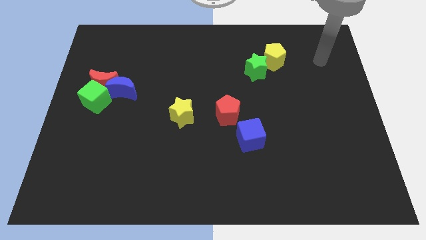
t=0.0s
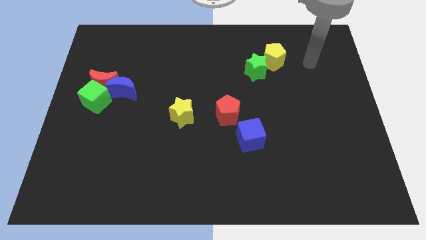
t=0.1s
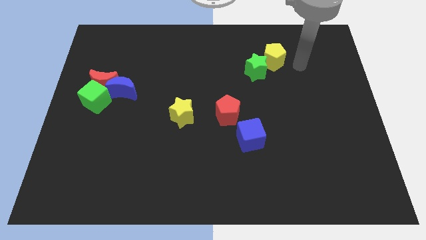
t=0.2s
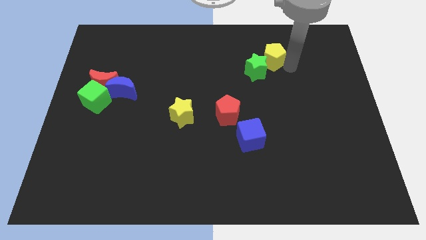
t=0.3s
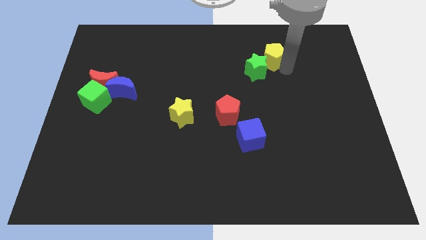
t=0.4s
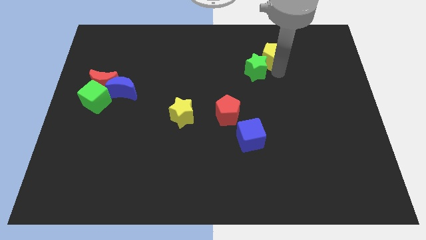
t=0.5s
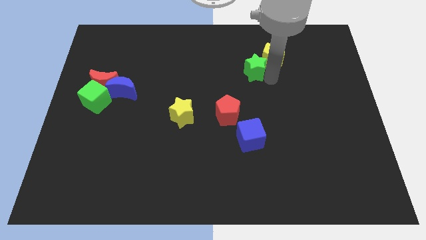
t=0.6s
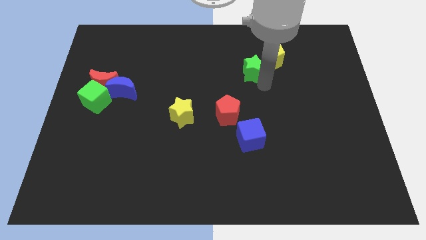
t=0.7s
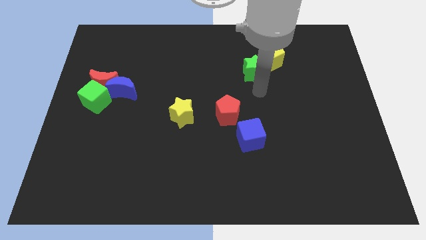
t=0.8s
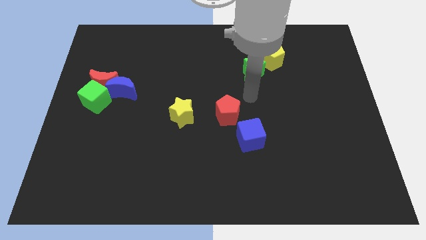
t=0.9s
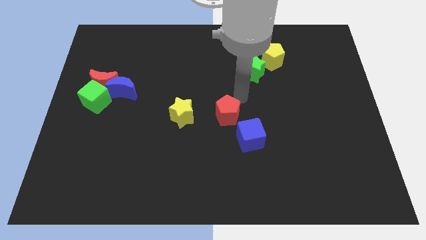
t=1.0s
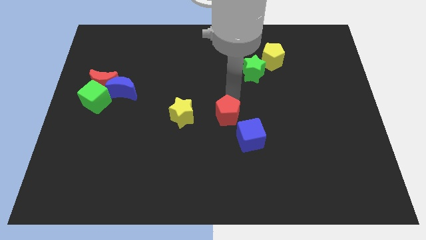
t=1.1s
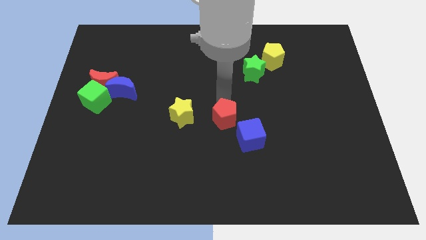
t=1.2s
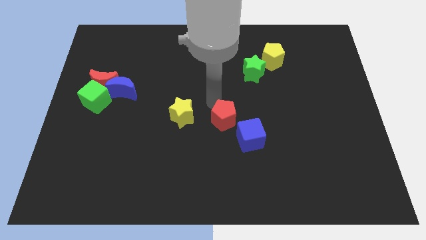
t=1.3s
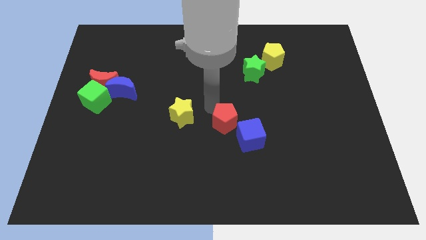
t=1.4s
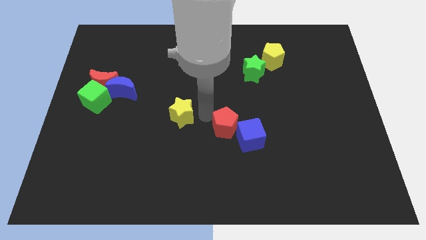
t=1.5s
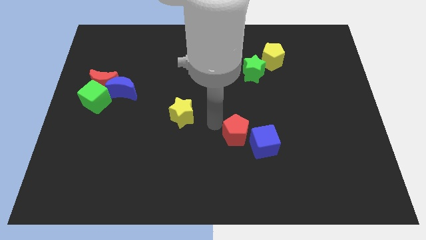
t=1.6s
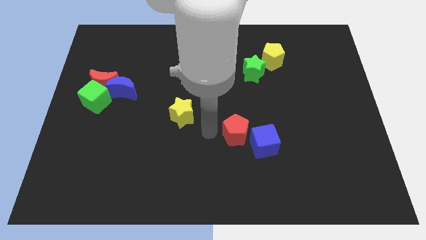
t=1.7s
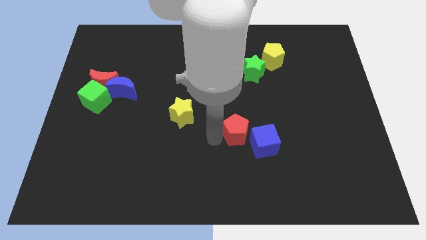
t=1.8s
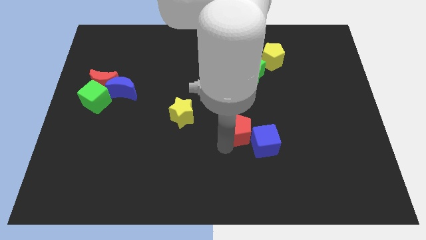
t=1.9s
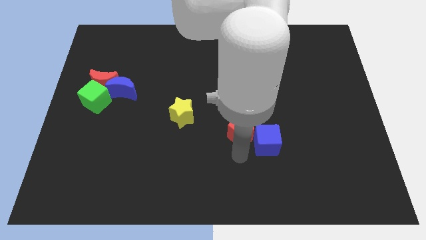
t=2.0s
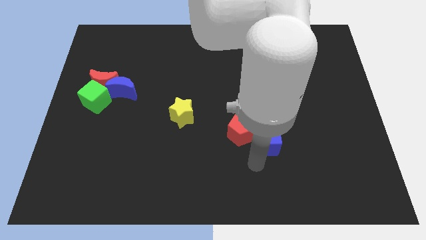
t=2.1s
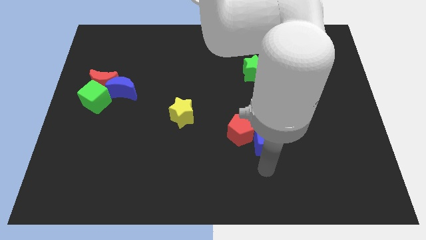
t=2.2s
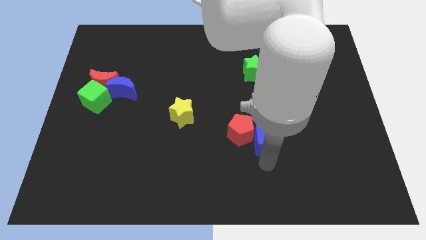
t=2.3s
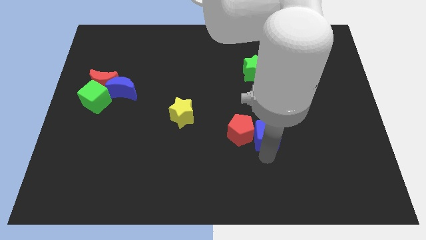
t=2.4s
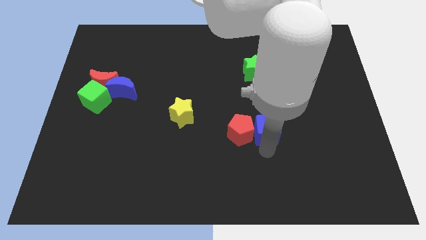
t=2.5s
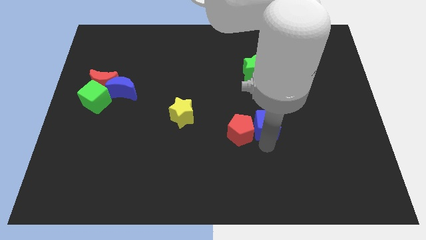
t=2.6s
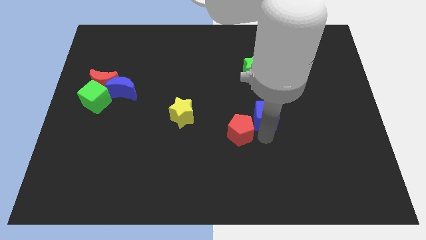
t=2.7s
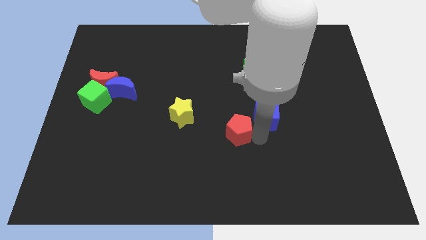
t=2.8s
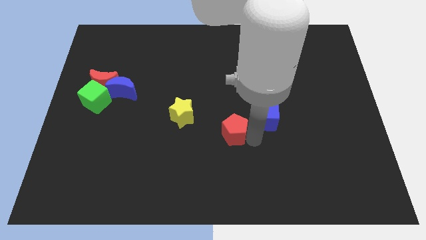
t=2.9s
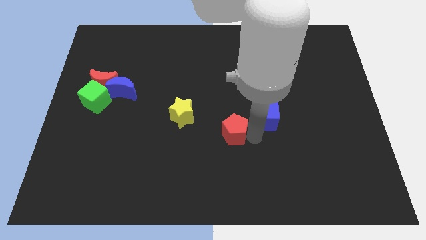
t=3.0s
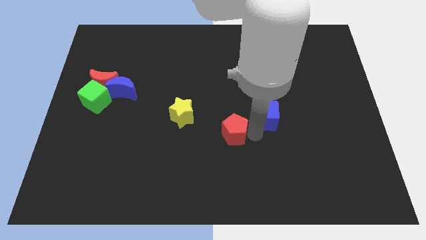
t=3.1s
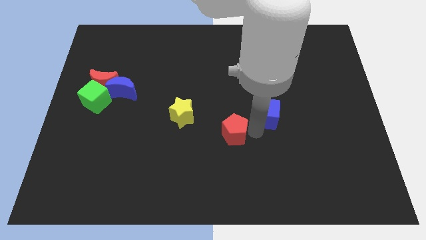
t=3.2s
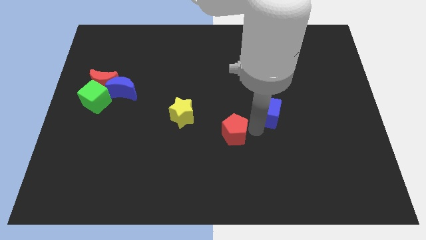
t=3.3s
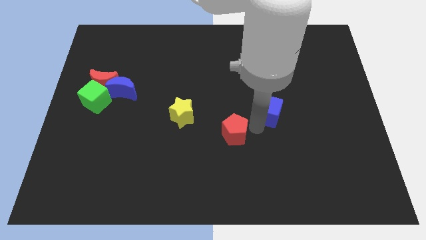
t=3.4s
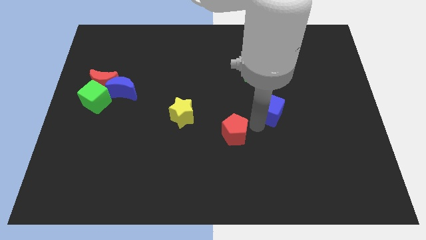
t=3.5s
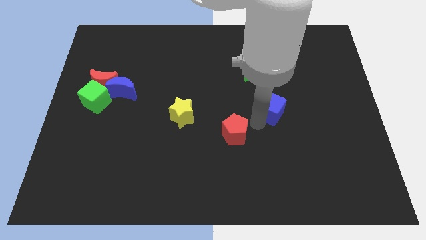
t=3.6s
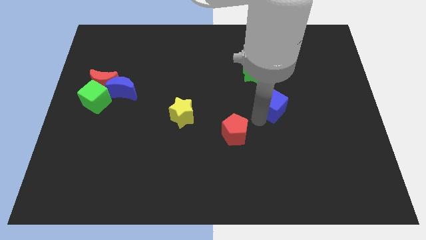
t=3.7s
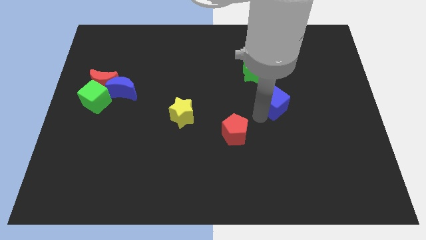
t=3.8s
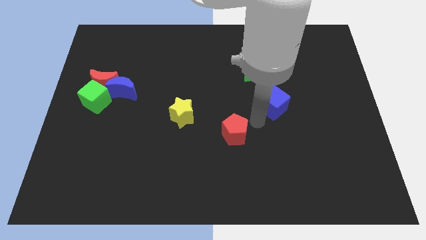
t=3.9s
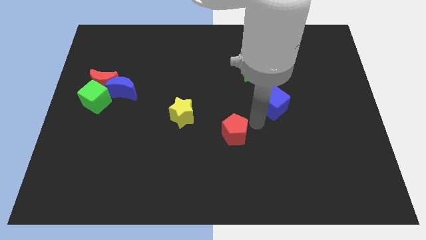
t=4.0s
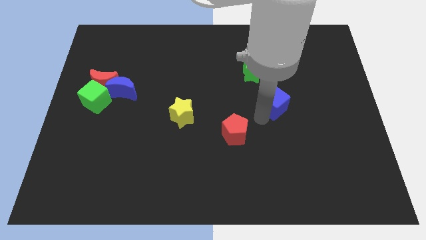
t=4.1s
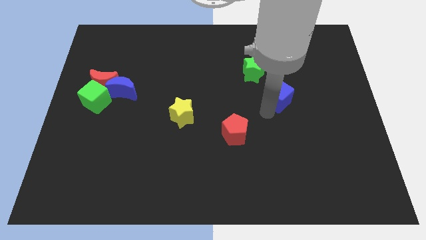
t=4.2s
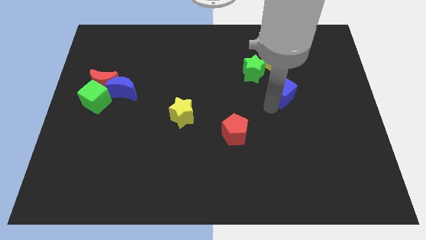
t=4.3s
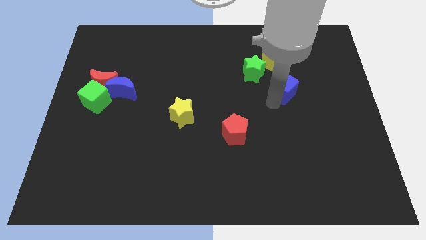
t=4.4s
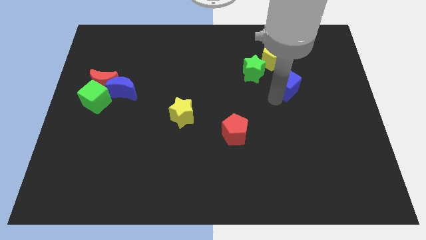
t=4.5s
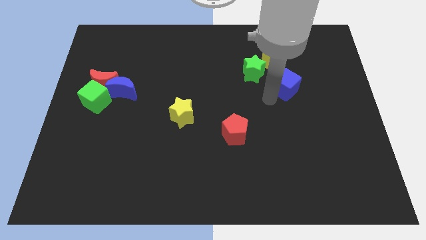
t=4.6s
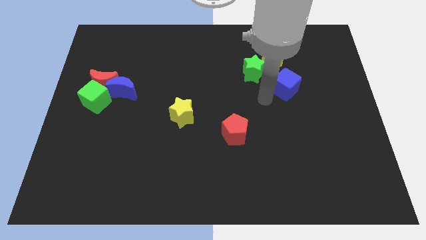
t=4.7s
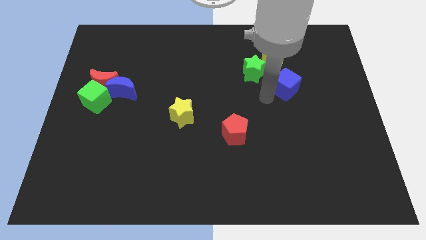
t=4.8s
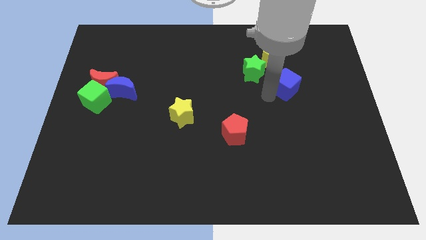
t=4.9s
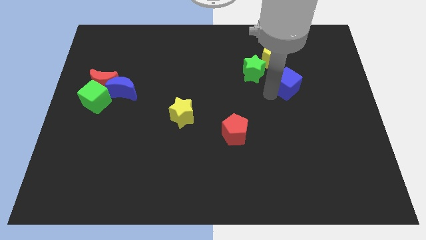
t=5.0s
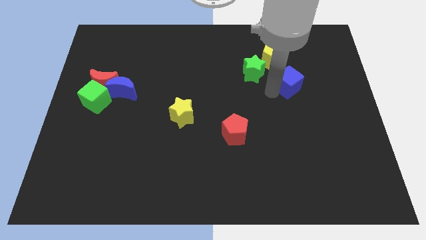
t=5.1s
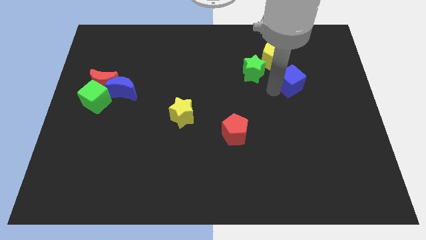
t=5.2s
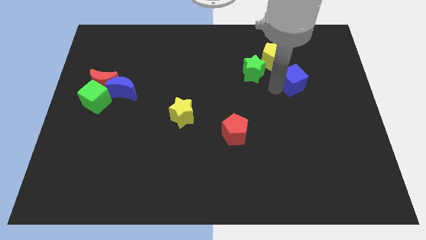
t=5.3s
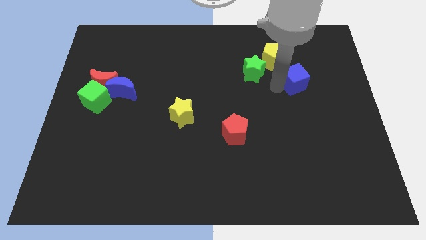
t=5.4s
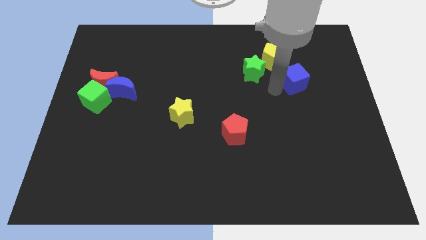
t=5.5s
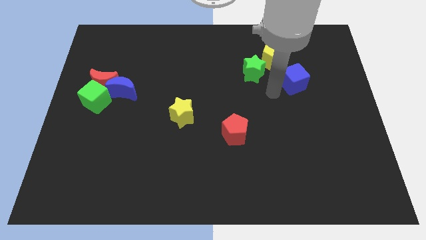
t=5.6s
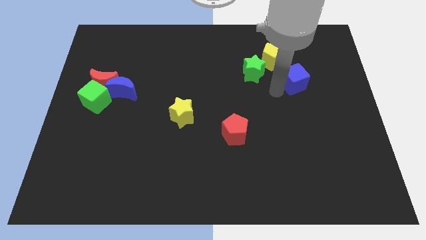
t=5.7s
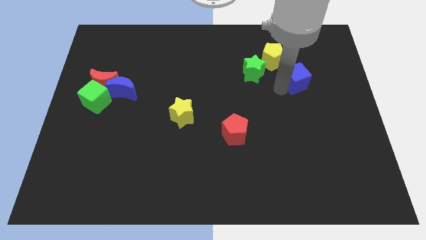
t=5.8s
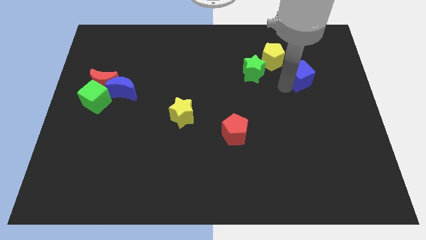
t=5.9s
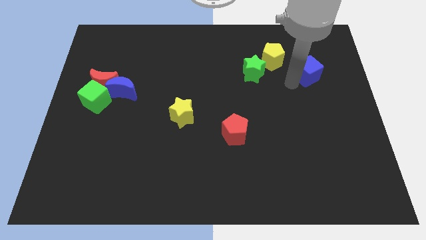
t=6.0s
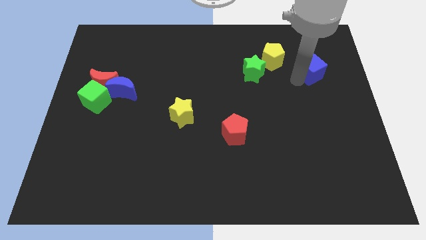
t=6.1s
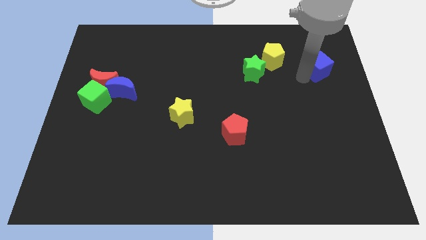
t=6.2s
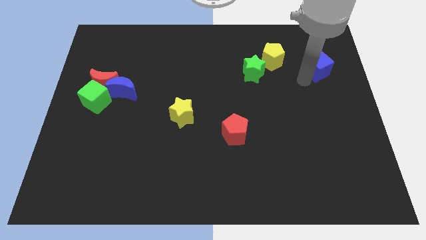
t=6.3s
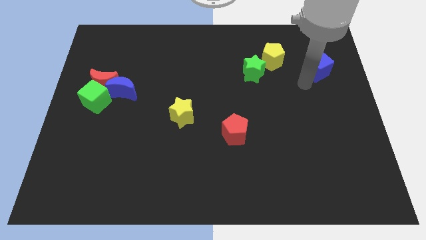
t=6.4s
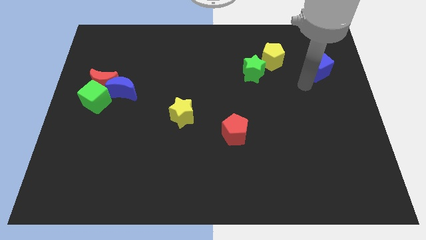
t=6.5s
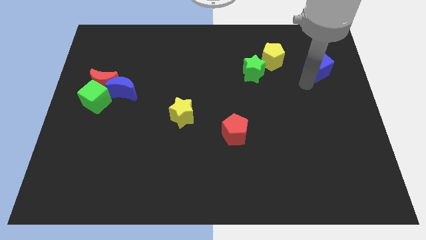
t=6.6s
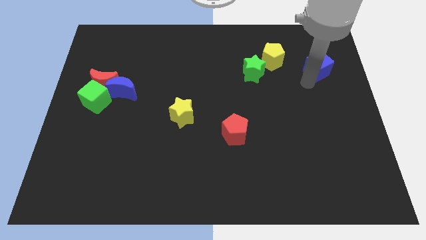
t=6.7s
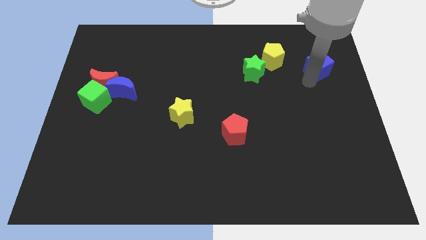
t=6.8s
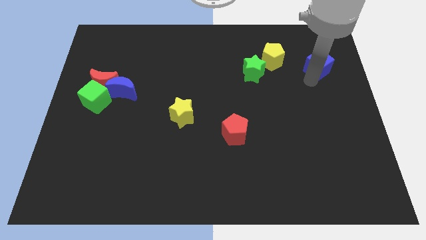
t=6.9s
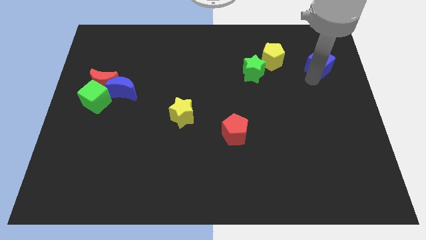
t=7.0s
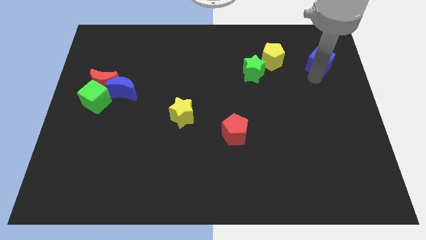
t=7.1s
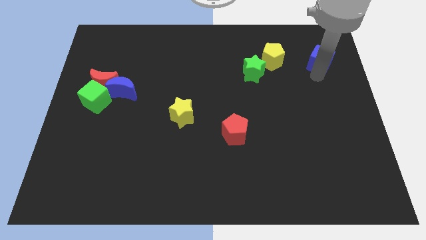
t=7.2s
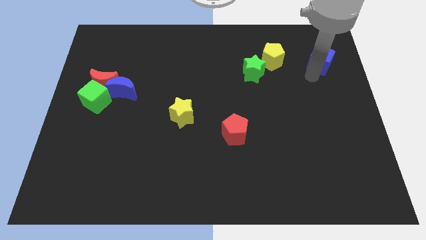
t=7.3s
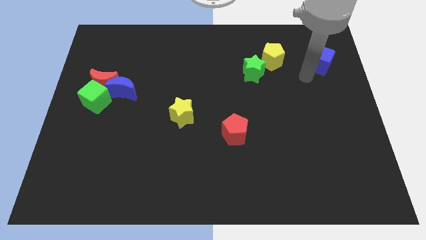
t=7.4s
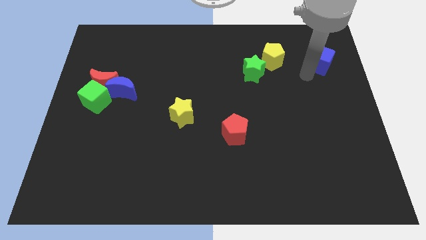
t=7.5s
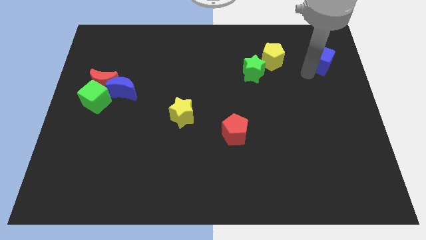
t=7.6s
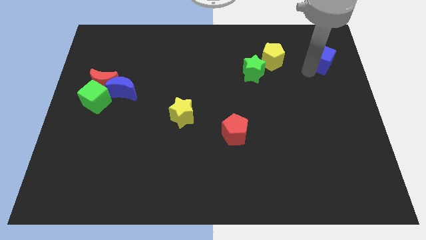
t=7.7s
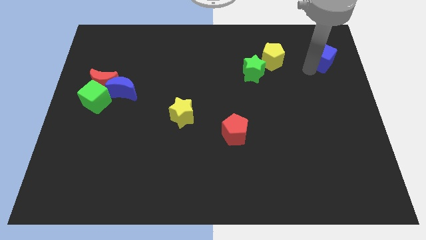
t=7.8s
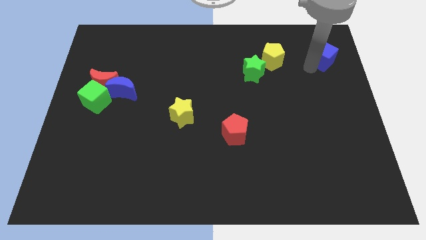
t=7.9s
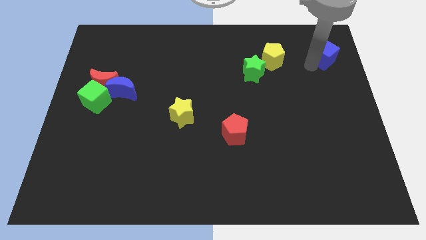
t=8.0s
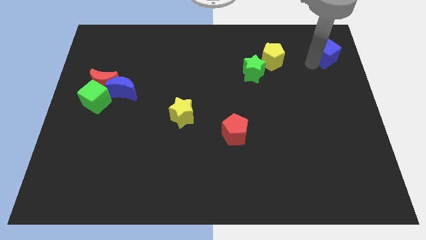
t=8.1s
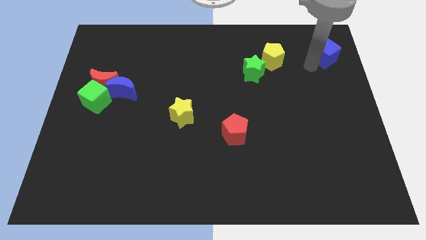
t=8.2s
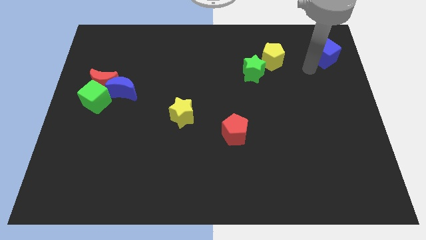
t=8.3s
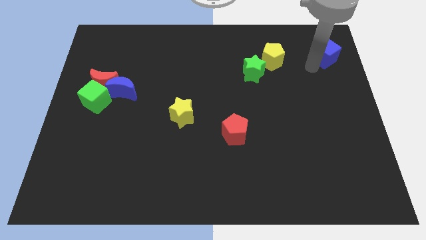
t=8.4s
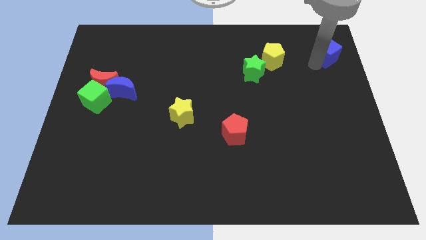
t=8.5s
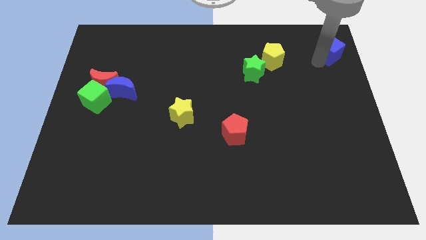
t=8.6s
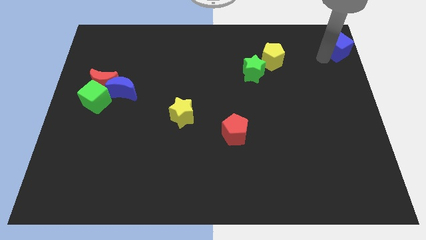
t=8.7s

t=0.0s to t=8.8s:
push the blue cube to the upper right corner
